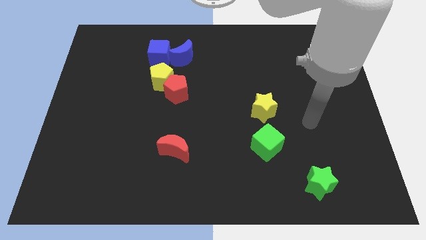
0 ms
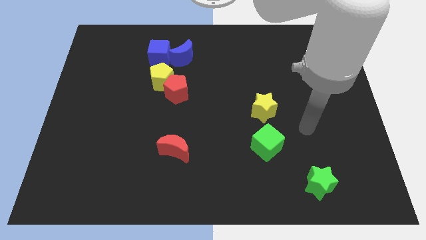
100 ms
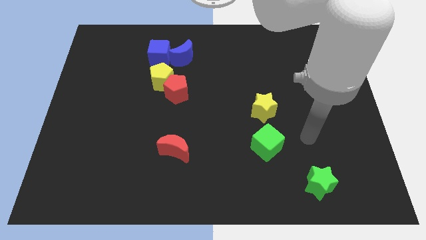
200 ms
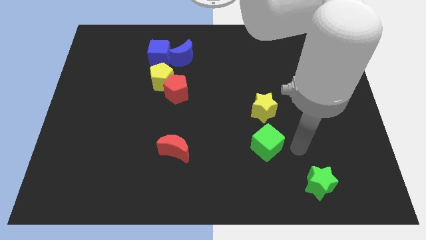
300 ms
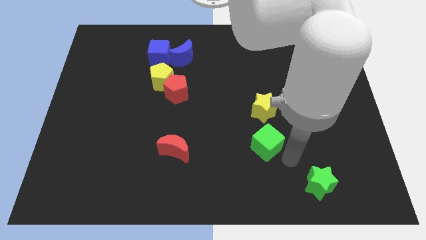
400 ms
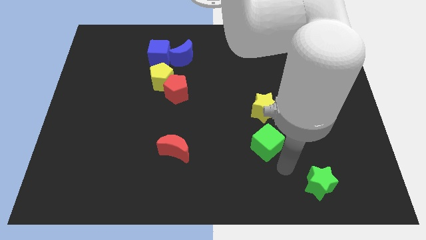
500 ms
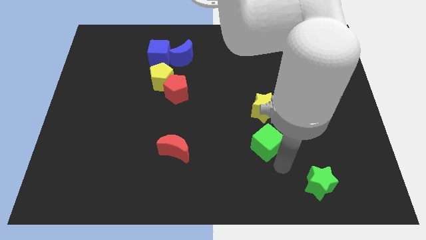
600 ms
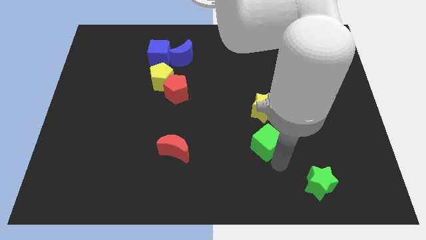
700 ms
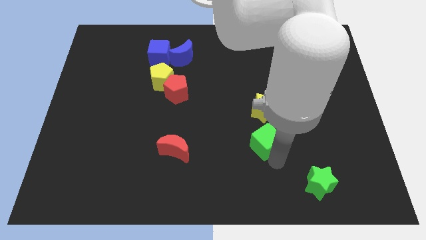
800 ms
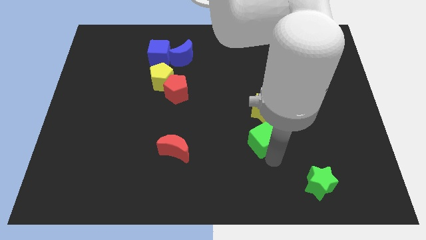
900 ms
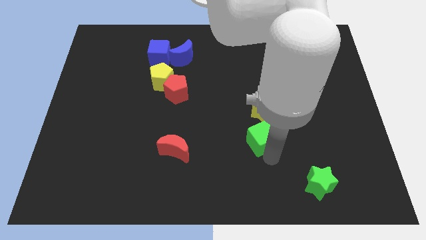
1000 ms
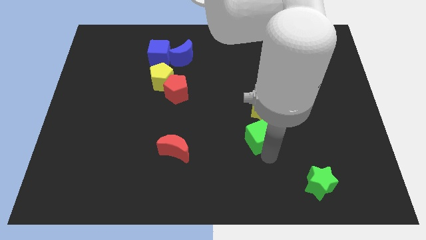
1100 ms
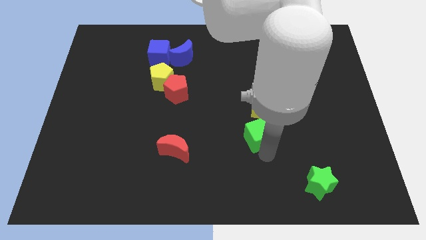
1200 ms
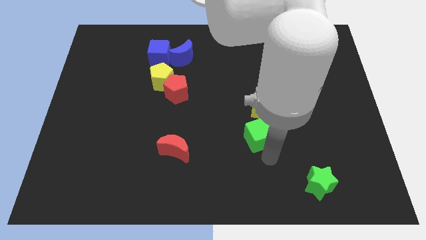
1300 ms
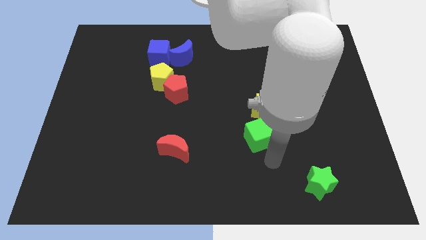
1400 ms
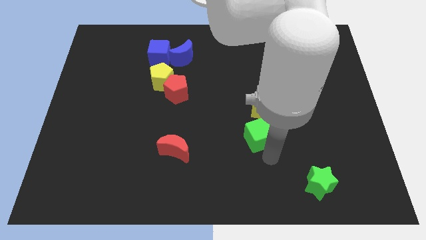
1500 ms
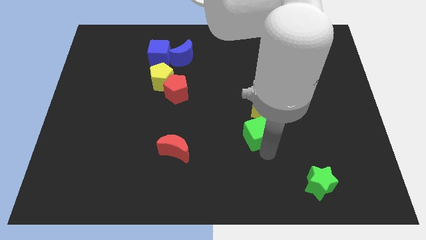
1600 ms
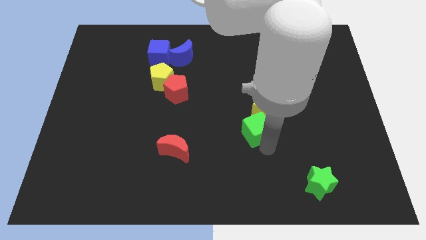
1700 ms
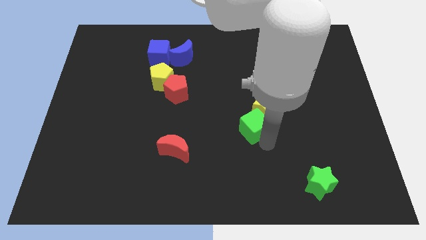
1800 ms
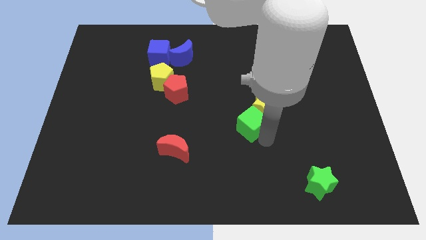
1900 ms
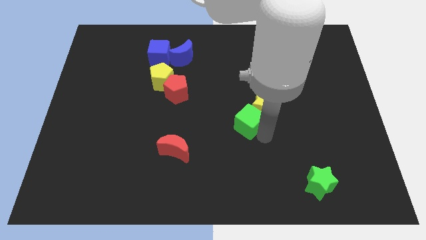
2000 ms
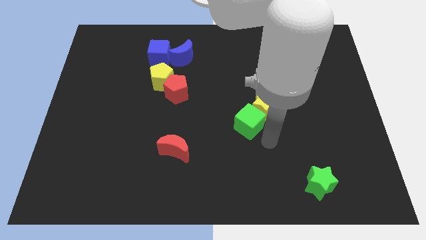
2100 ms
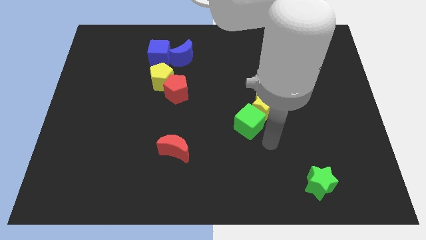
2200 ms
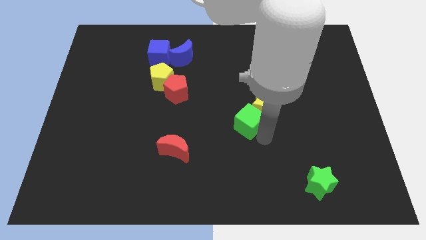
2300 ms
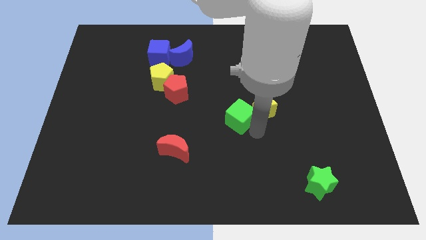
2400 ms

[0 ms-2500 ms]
slightly slide the green cube up and to the left

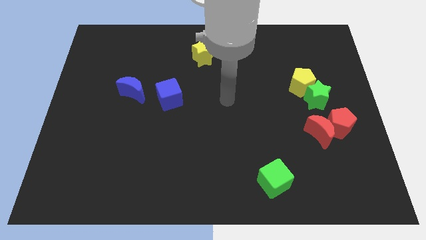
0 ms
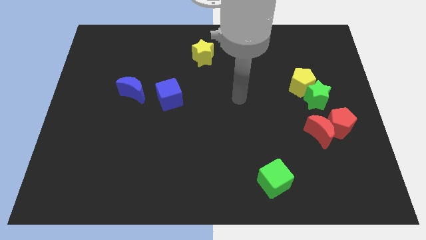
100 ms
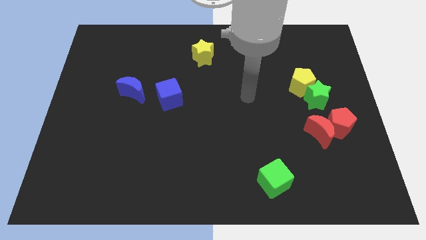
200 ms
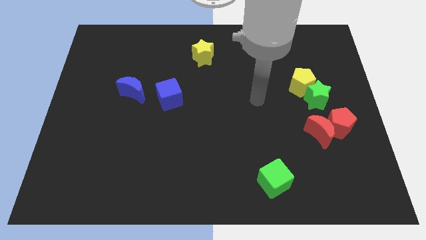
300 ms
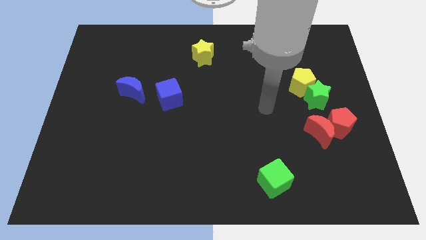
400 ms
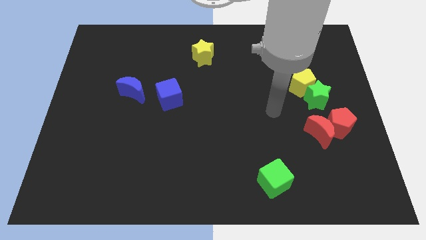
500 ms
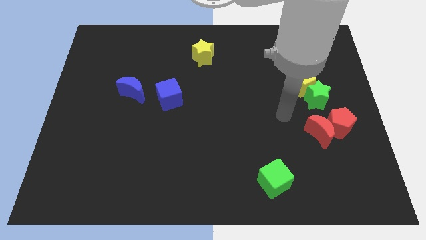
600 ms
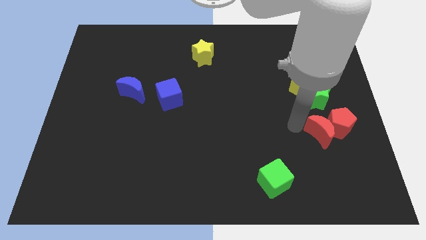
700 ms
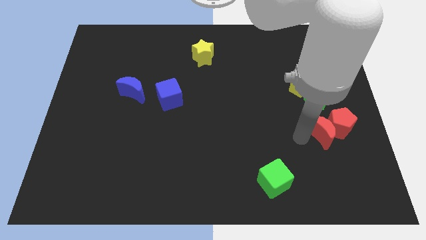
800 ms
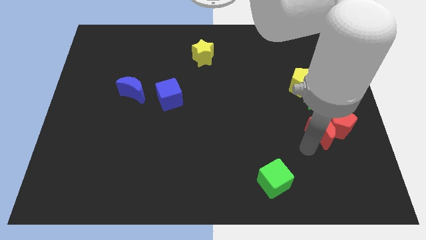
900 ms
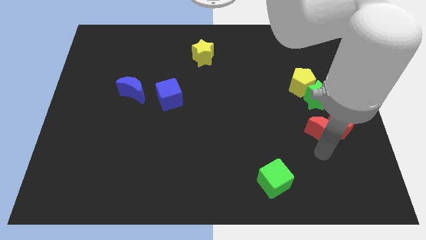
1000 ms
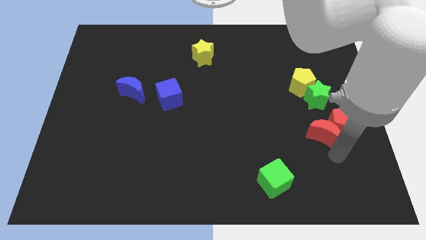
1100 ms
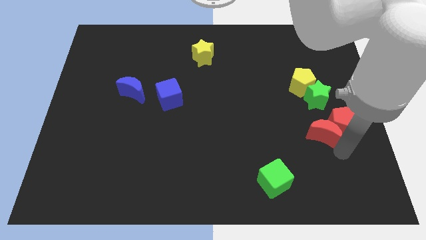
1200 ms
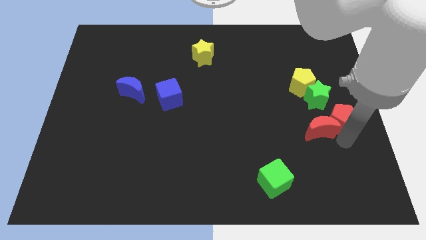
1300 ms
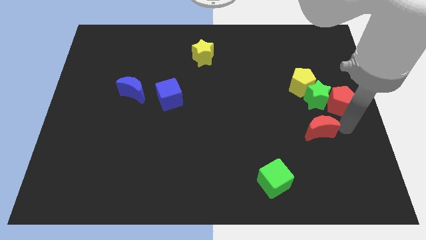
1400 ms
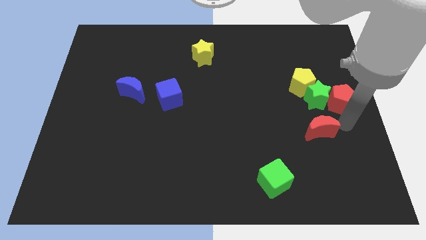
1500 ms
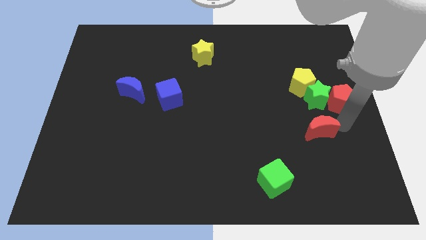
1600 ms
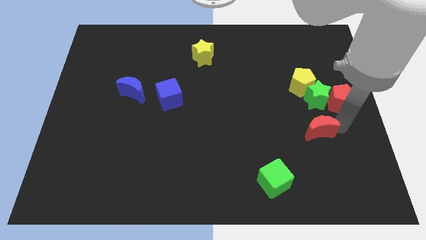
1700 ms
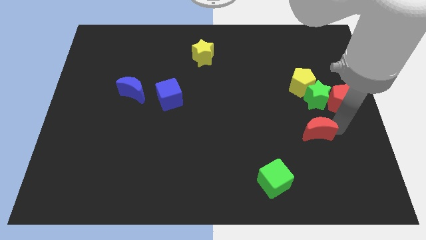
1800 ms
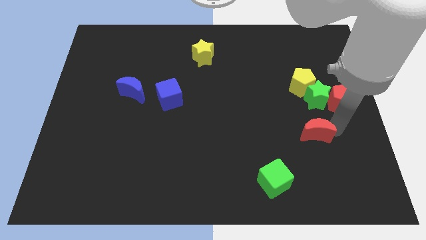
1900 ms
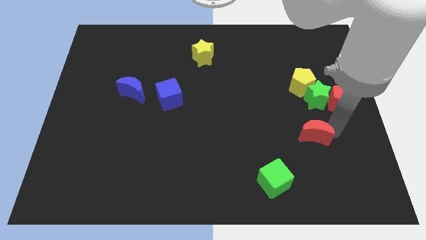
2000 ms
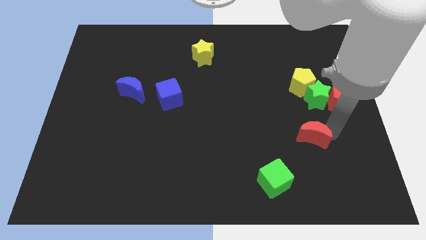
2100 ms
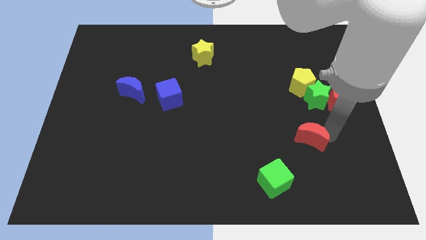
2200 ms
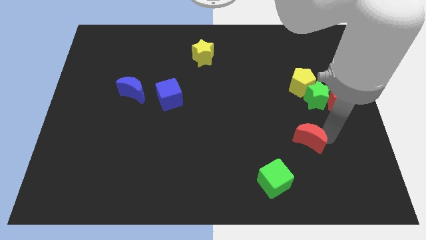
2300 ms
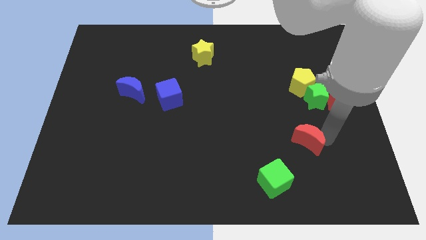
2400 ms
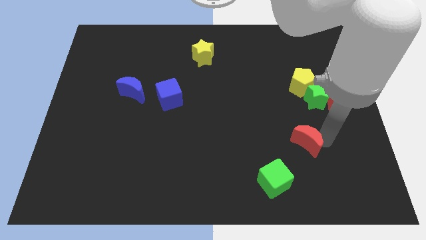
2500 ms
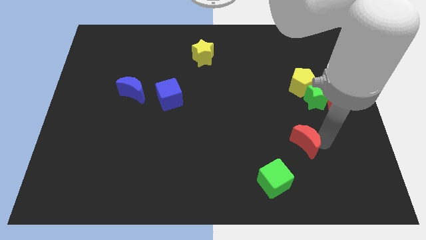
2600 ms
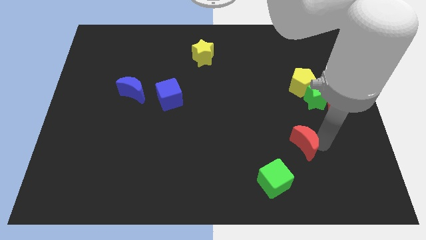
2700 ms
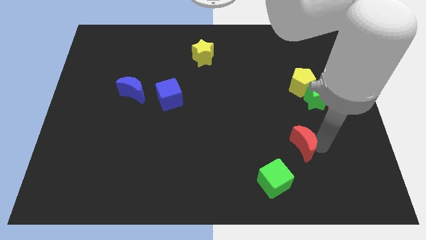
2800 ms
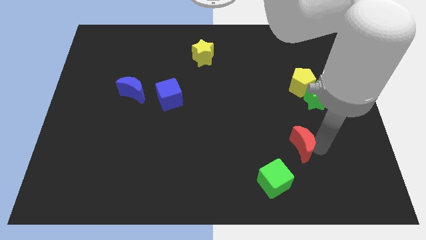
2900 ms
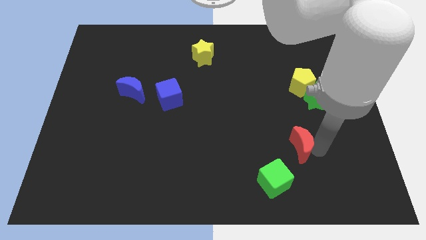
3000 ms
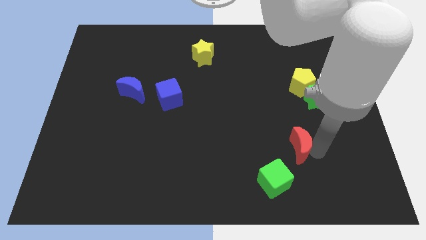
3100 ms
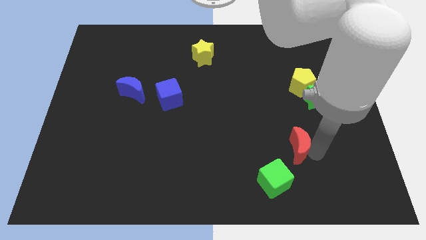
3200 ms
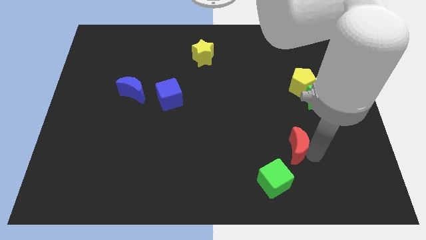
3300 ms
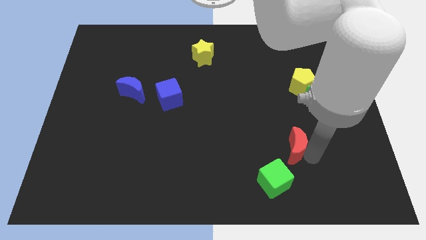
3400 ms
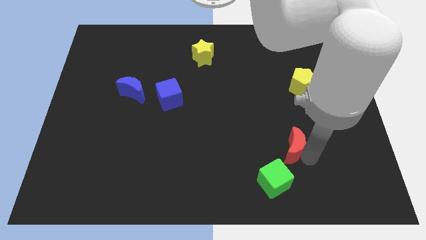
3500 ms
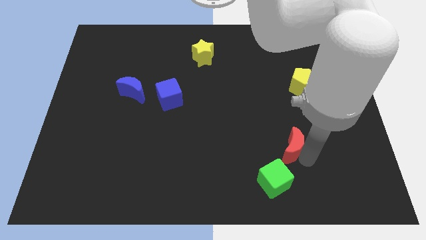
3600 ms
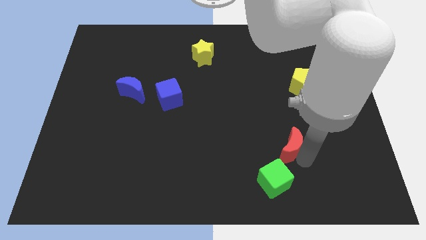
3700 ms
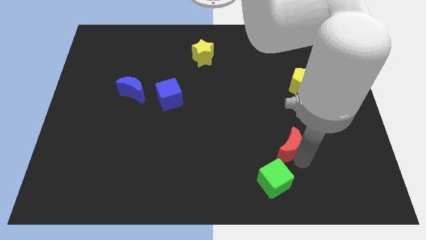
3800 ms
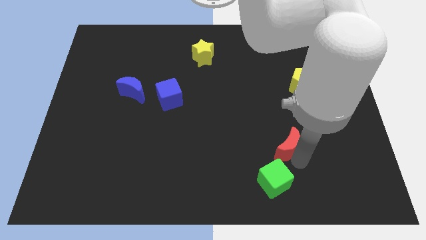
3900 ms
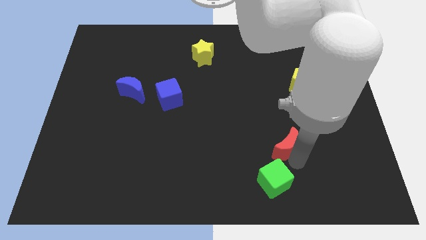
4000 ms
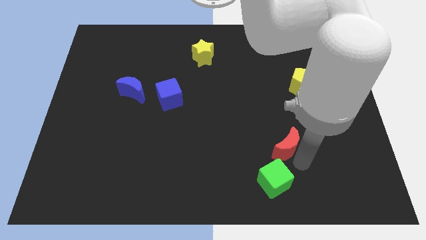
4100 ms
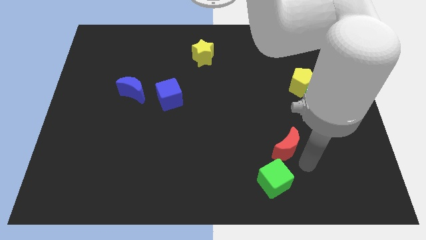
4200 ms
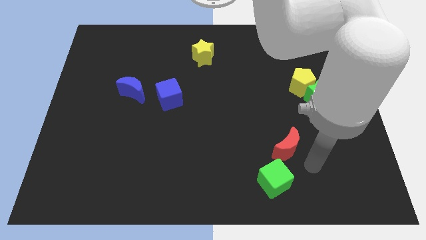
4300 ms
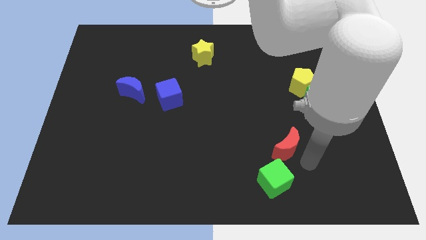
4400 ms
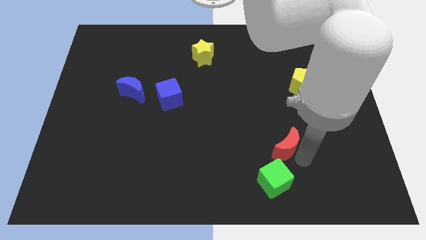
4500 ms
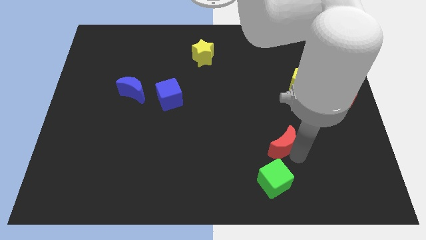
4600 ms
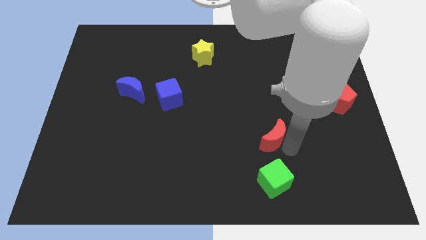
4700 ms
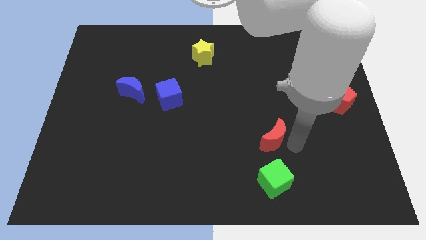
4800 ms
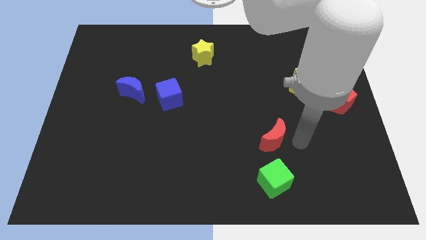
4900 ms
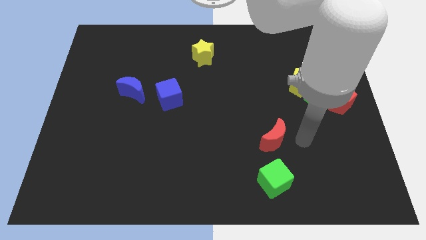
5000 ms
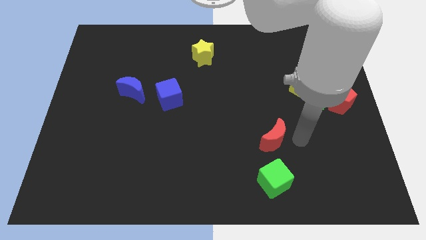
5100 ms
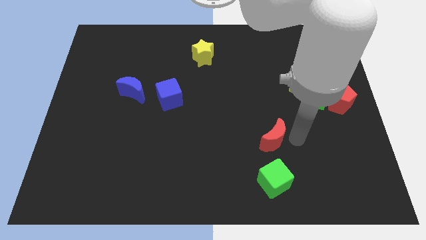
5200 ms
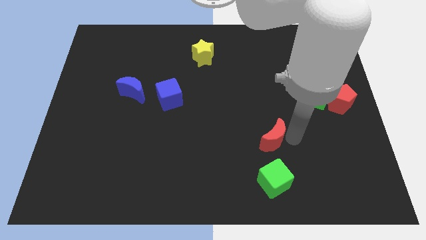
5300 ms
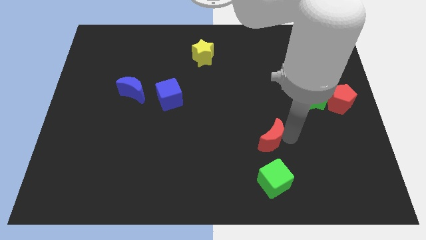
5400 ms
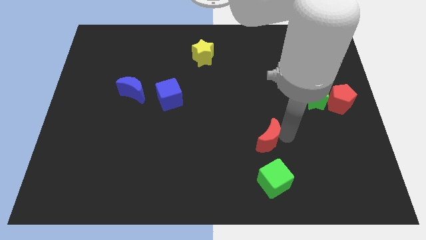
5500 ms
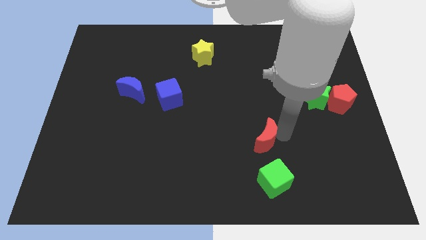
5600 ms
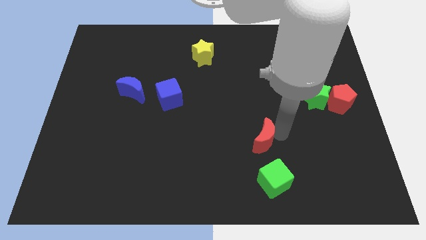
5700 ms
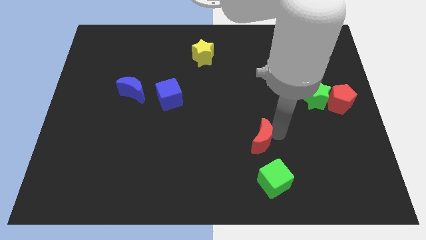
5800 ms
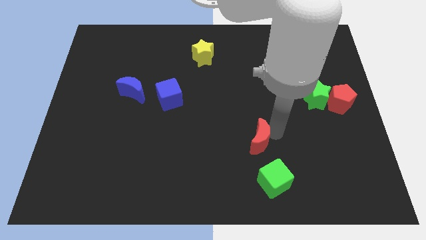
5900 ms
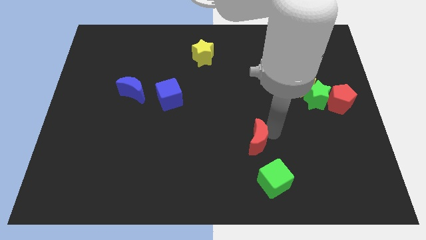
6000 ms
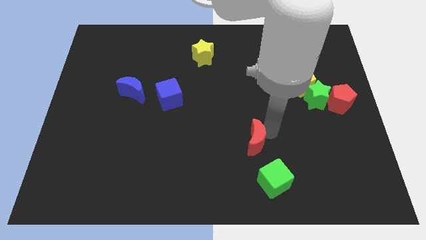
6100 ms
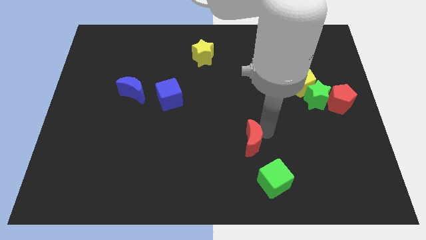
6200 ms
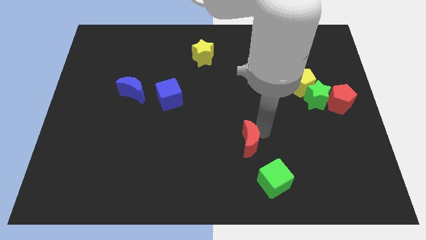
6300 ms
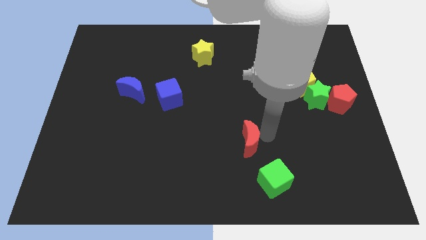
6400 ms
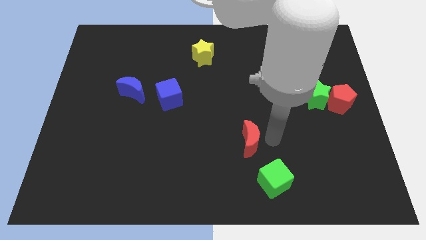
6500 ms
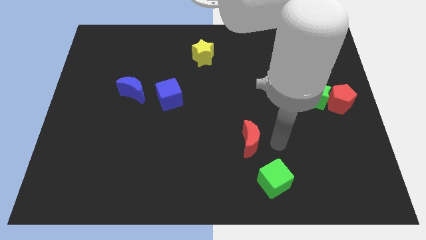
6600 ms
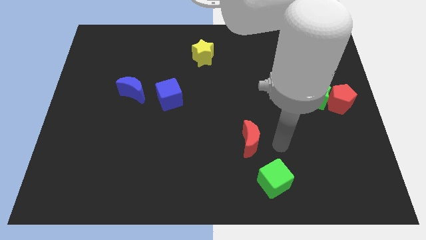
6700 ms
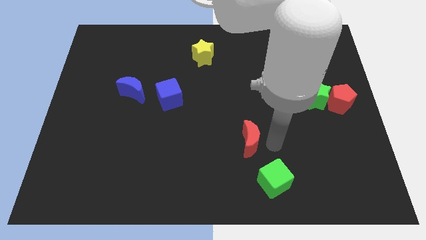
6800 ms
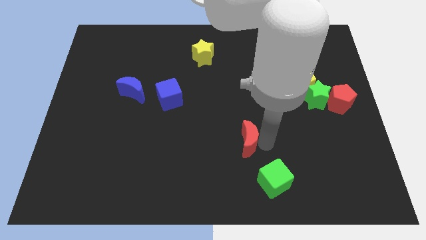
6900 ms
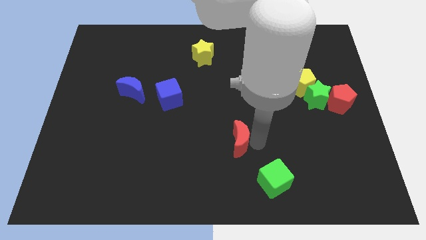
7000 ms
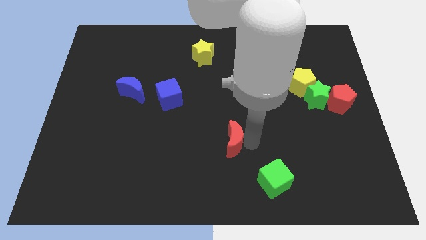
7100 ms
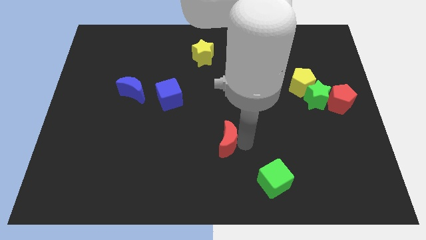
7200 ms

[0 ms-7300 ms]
slide the red moon left
